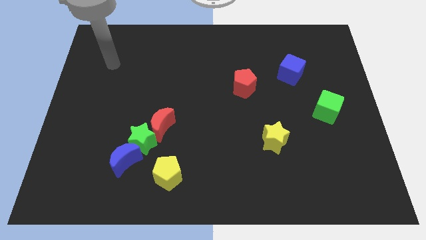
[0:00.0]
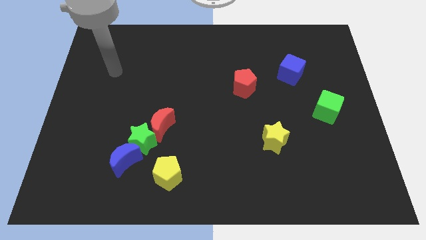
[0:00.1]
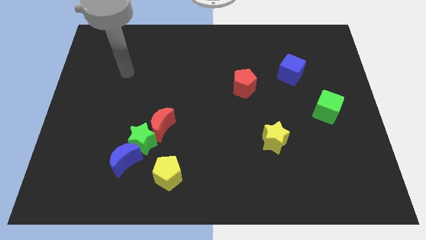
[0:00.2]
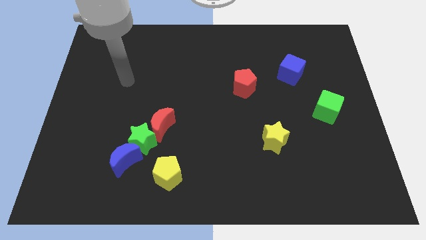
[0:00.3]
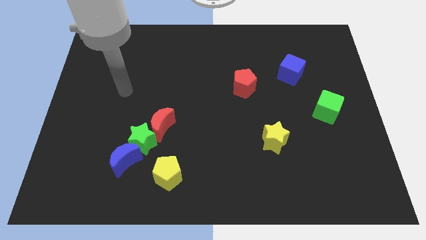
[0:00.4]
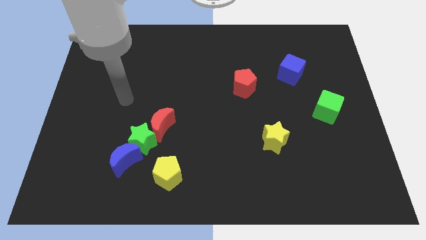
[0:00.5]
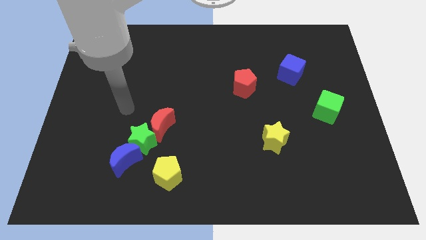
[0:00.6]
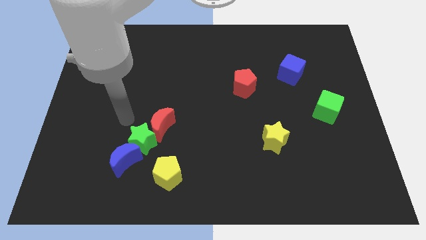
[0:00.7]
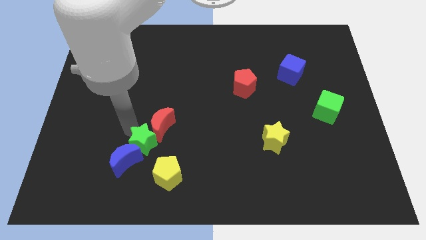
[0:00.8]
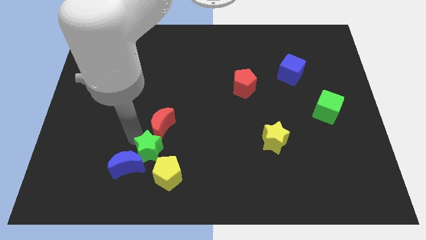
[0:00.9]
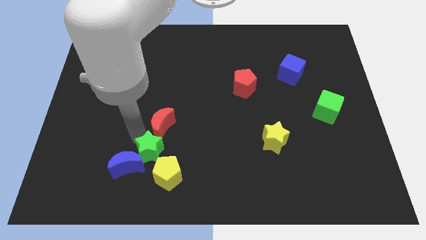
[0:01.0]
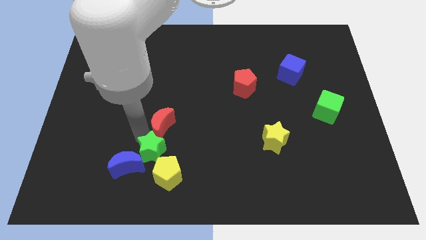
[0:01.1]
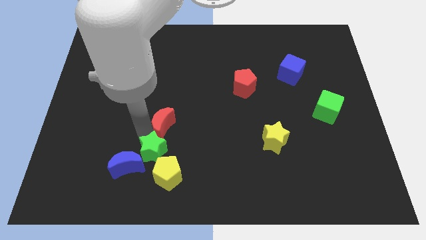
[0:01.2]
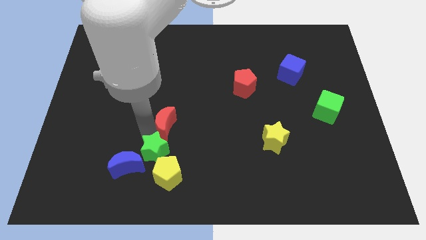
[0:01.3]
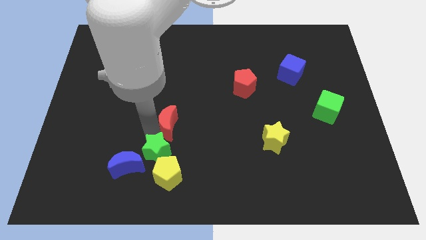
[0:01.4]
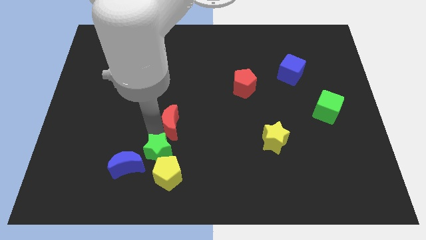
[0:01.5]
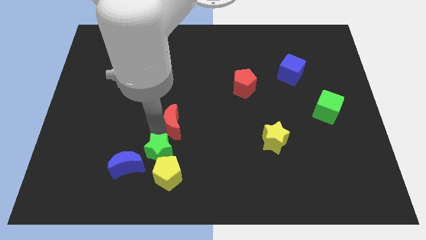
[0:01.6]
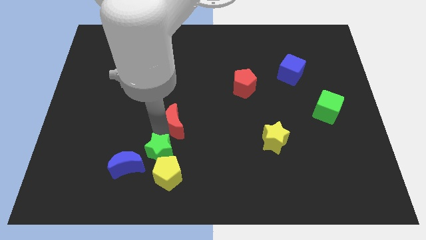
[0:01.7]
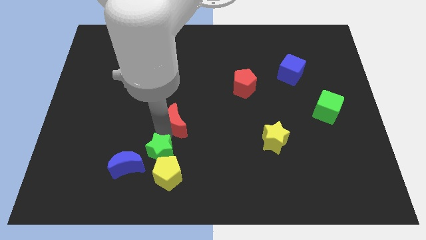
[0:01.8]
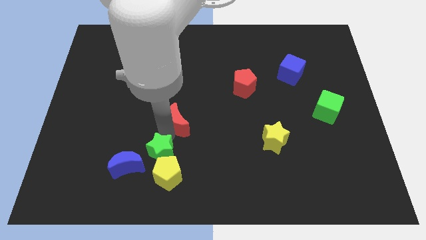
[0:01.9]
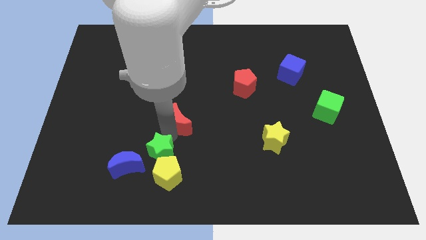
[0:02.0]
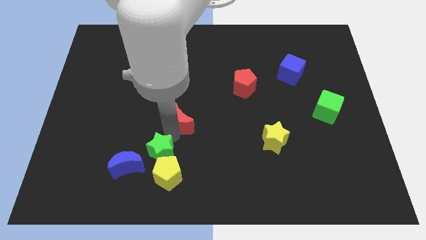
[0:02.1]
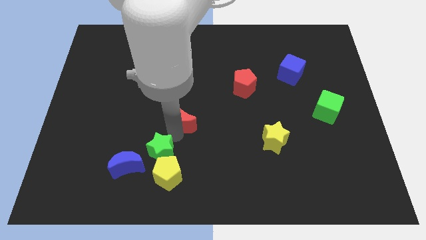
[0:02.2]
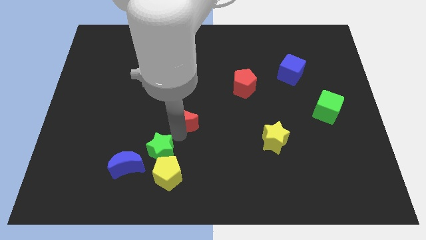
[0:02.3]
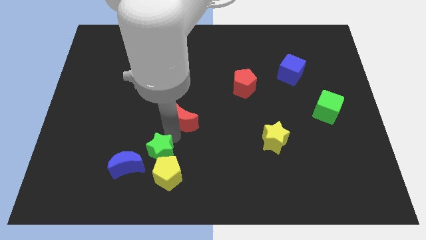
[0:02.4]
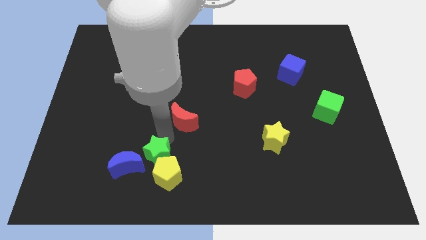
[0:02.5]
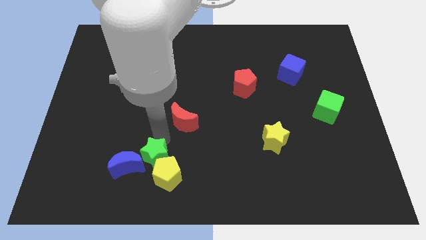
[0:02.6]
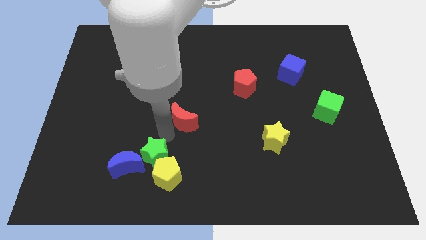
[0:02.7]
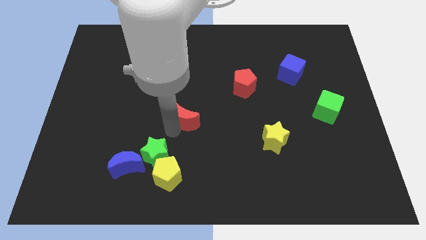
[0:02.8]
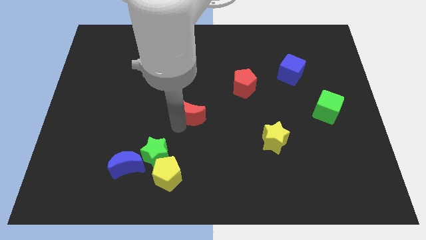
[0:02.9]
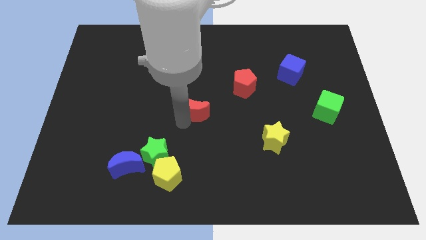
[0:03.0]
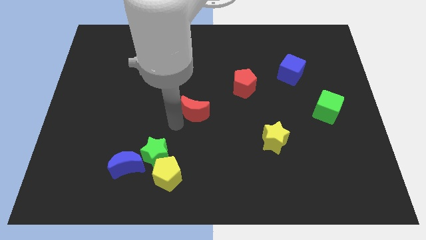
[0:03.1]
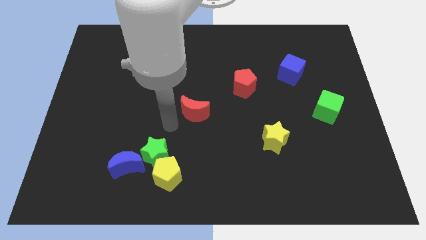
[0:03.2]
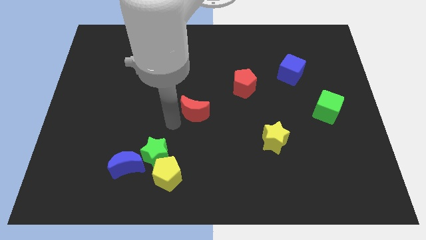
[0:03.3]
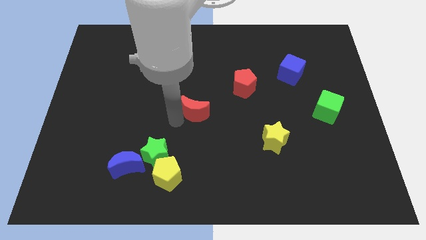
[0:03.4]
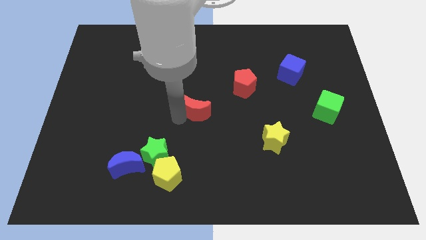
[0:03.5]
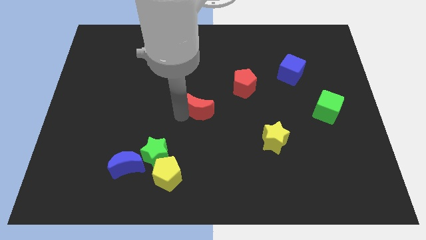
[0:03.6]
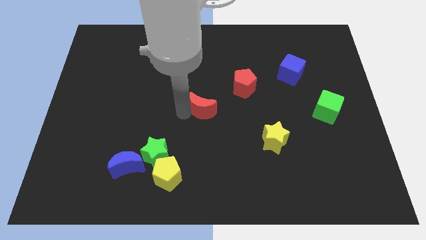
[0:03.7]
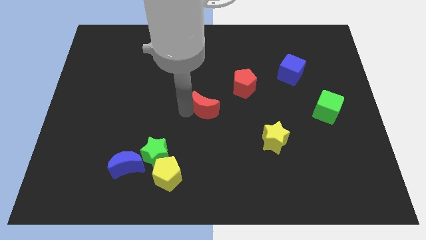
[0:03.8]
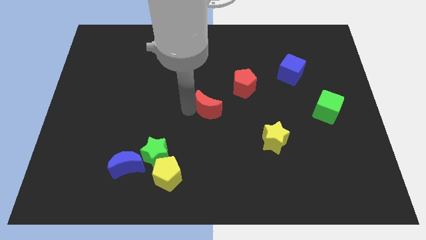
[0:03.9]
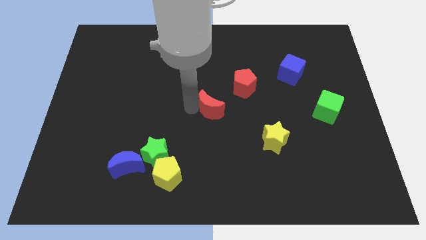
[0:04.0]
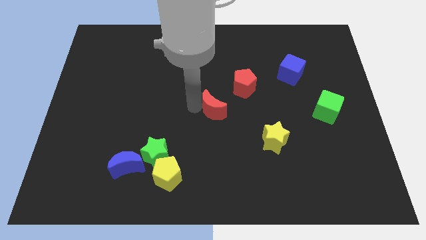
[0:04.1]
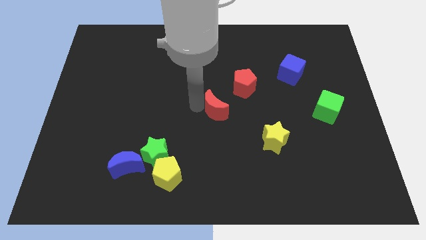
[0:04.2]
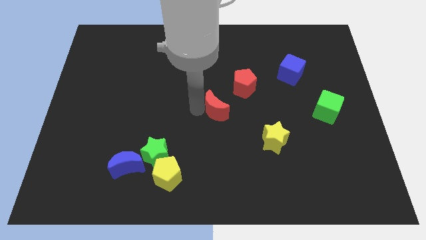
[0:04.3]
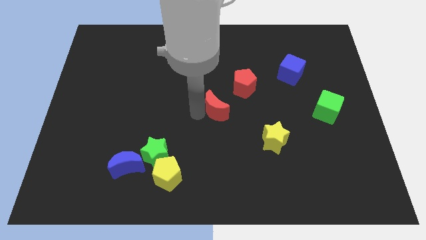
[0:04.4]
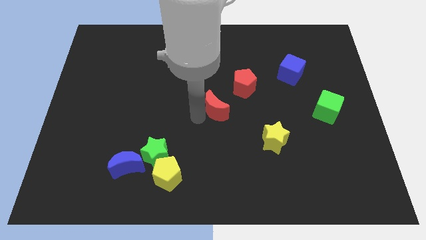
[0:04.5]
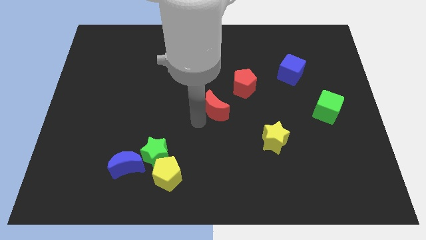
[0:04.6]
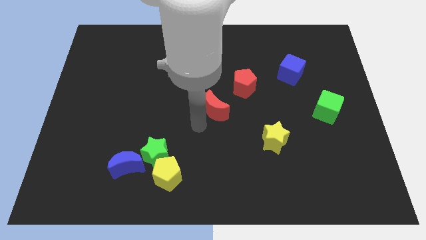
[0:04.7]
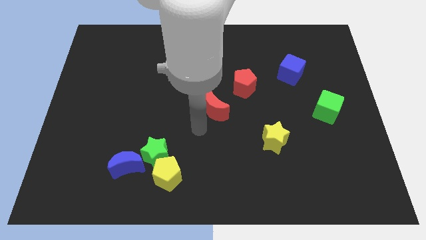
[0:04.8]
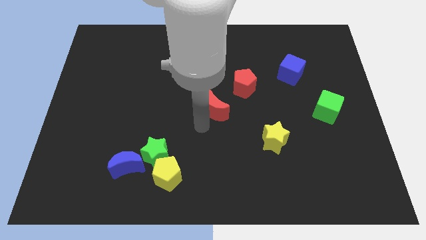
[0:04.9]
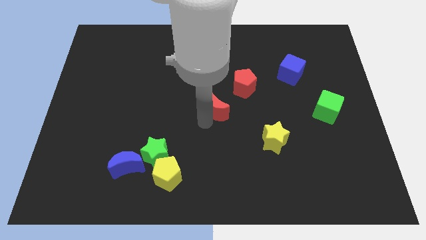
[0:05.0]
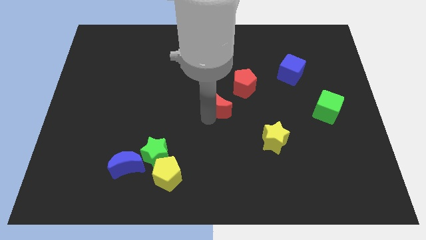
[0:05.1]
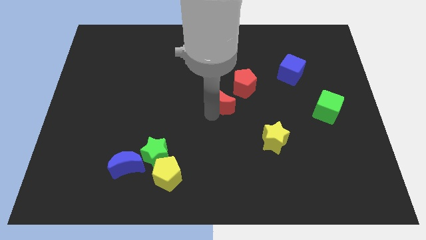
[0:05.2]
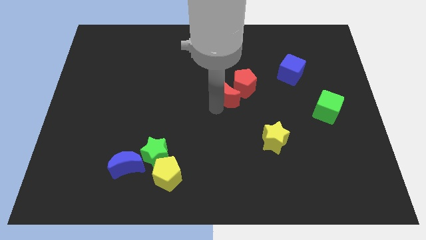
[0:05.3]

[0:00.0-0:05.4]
push the red moon close to the red pentagon

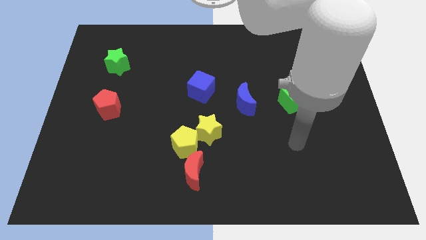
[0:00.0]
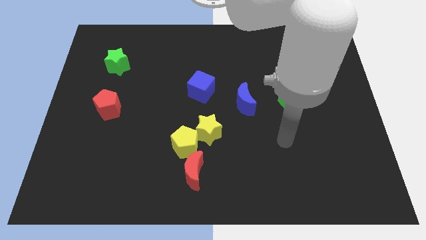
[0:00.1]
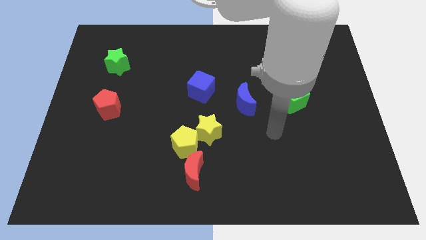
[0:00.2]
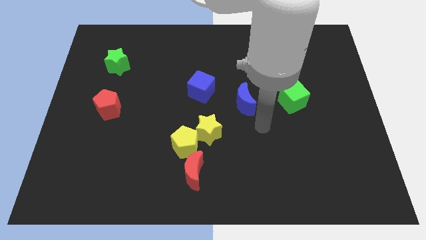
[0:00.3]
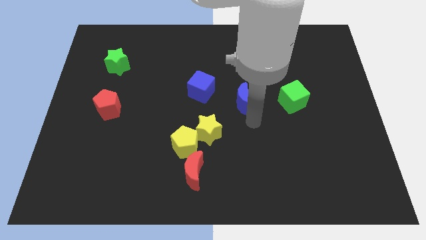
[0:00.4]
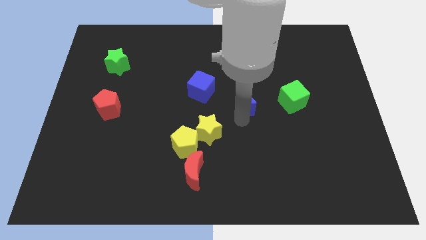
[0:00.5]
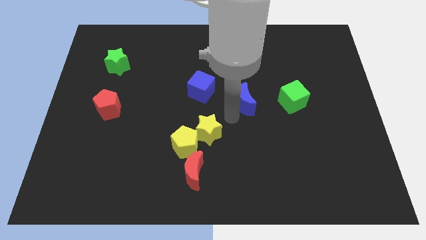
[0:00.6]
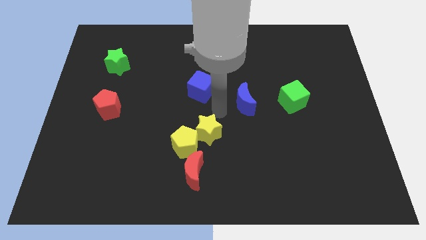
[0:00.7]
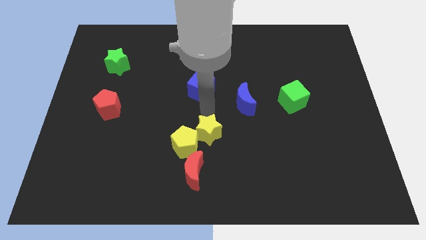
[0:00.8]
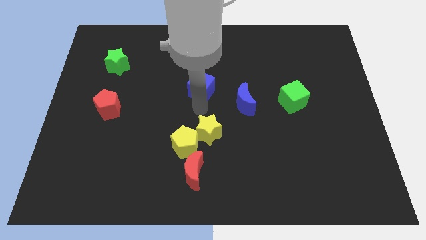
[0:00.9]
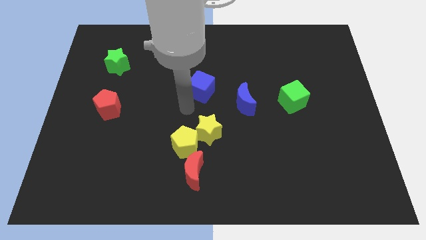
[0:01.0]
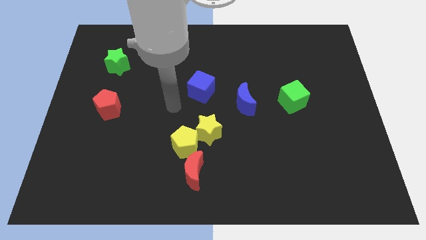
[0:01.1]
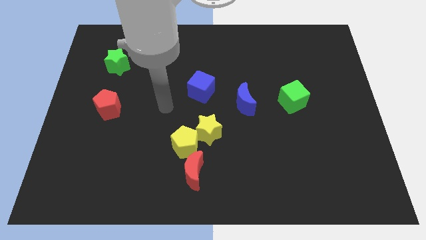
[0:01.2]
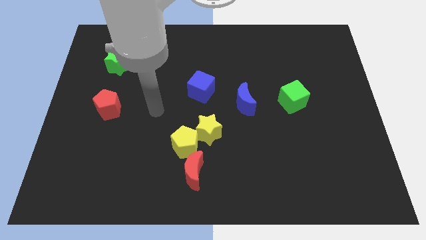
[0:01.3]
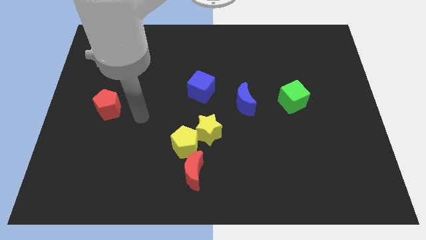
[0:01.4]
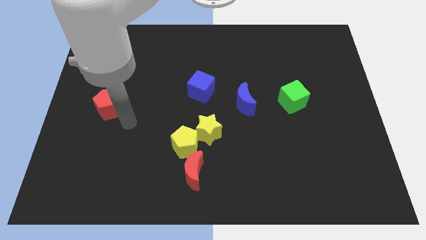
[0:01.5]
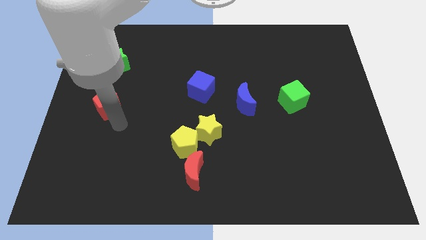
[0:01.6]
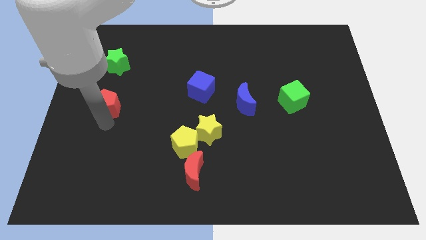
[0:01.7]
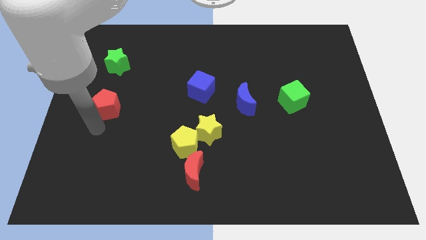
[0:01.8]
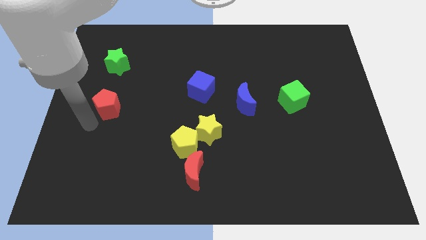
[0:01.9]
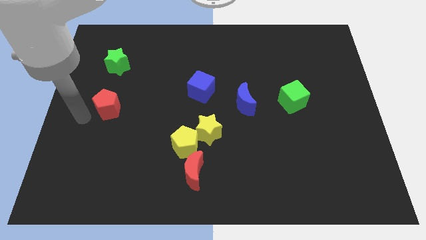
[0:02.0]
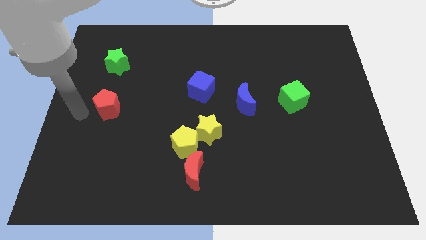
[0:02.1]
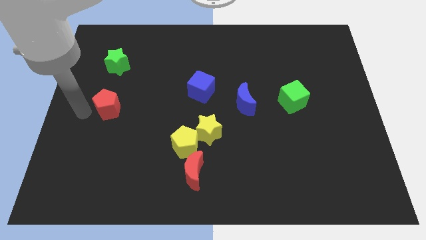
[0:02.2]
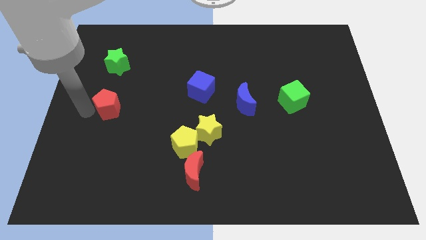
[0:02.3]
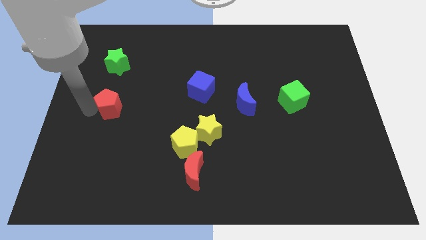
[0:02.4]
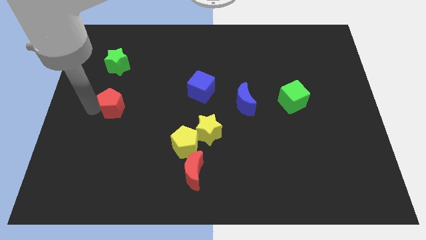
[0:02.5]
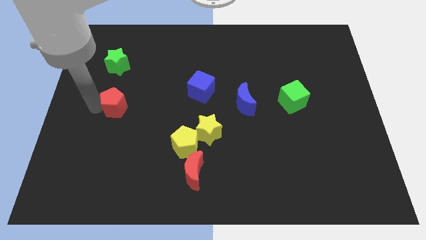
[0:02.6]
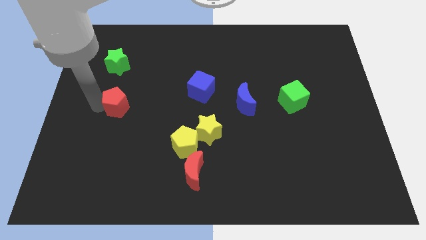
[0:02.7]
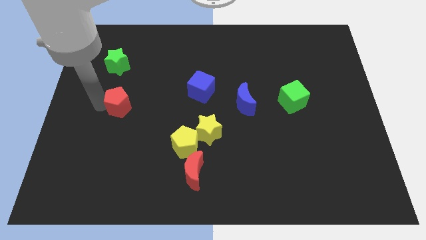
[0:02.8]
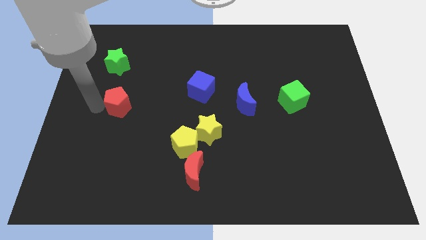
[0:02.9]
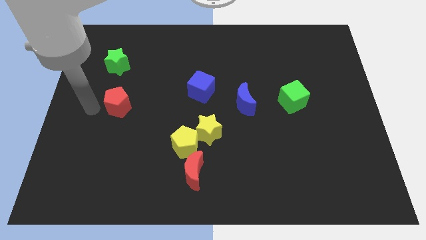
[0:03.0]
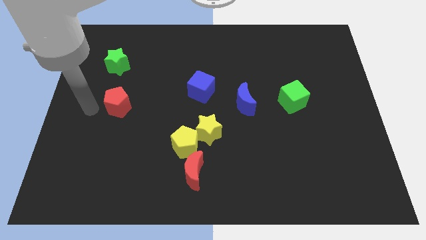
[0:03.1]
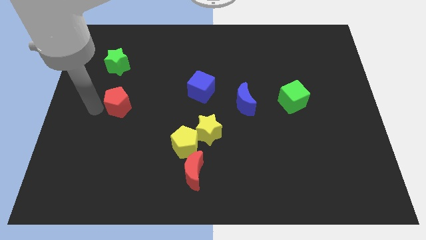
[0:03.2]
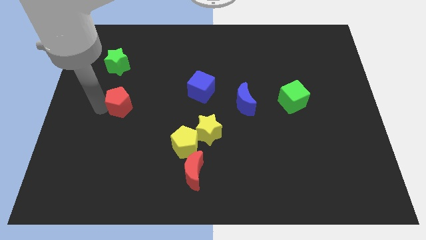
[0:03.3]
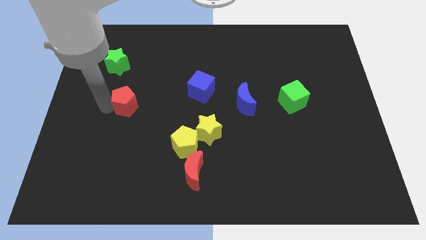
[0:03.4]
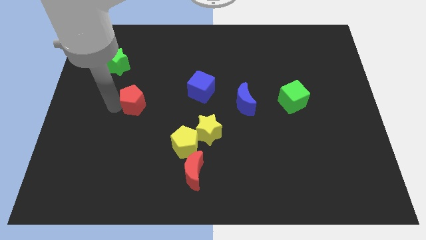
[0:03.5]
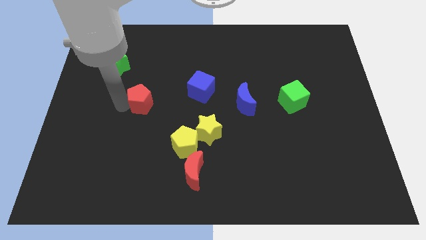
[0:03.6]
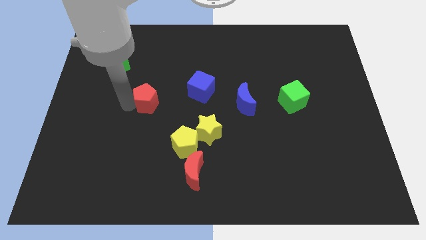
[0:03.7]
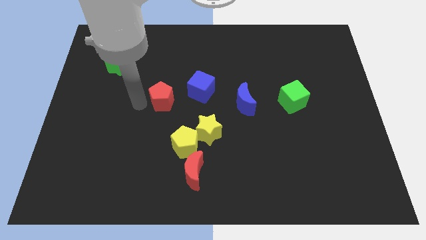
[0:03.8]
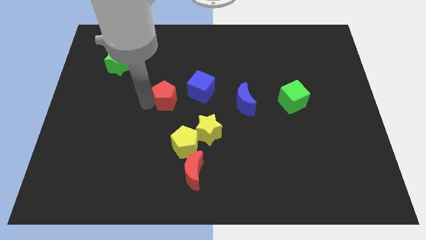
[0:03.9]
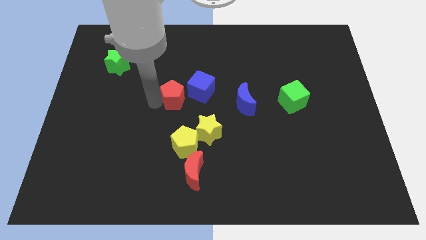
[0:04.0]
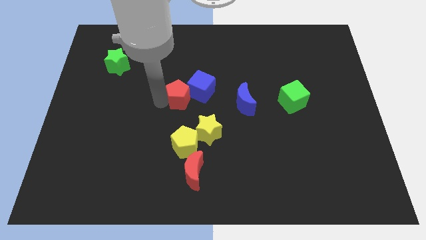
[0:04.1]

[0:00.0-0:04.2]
move the red pentagon next to the blue cube
